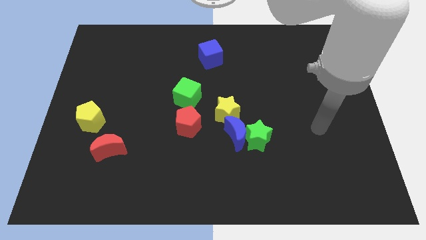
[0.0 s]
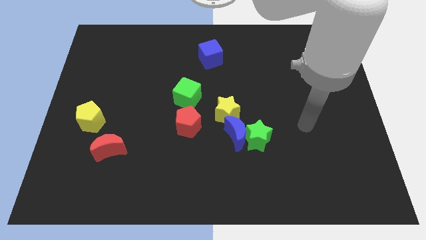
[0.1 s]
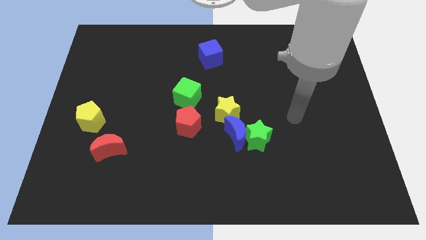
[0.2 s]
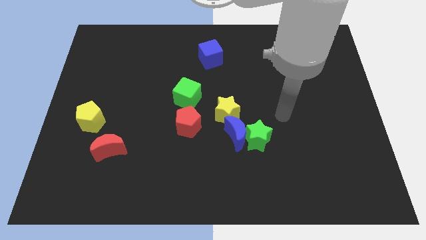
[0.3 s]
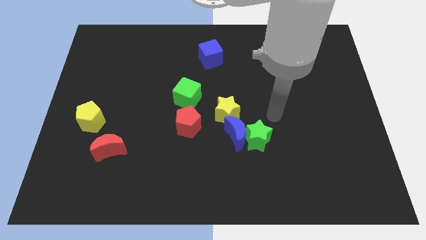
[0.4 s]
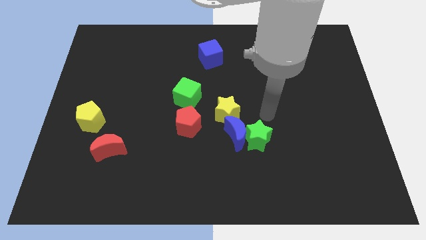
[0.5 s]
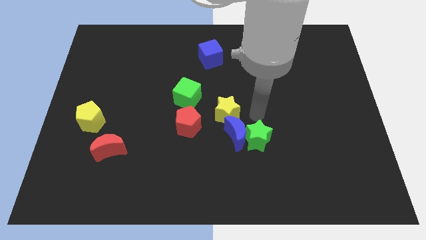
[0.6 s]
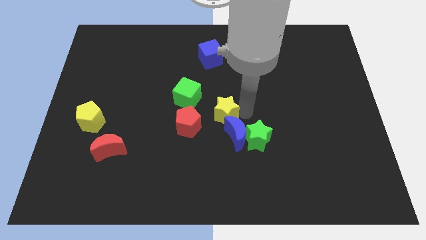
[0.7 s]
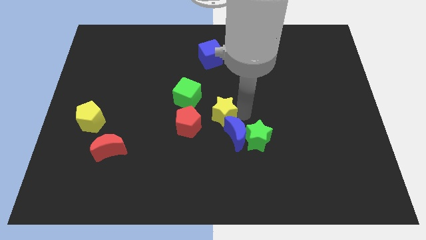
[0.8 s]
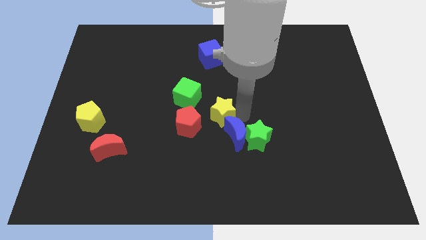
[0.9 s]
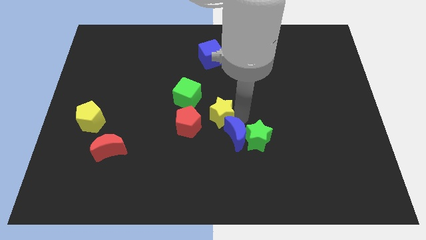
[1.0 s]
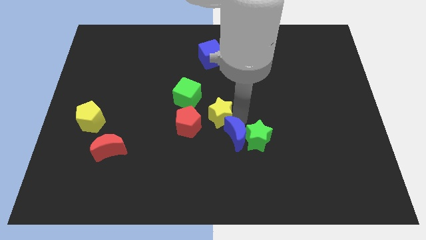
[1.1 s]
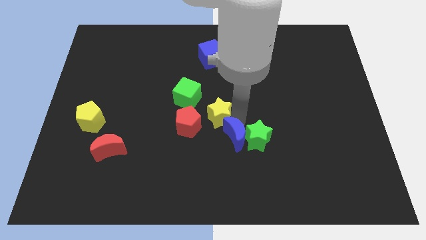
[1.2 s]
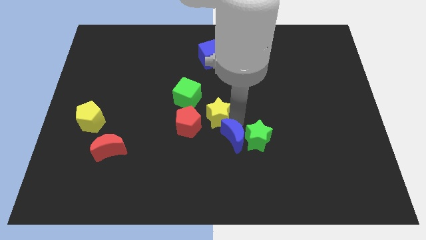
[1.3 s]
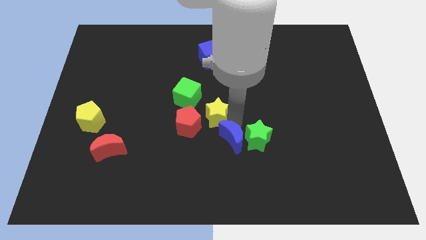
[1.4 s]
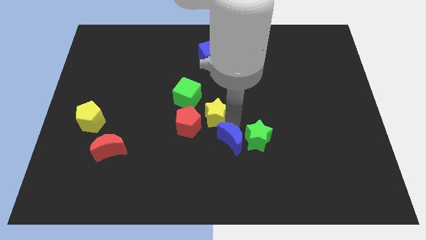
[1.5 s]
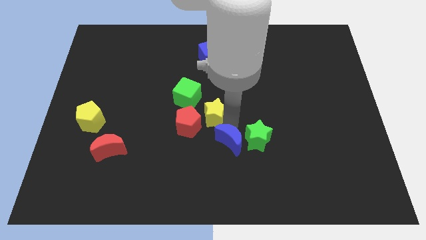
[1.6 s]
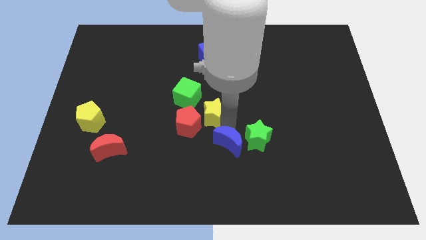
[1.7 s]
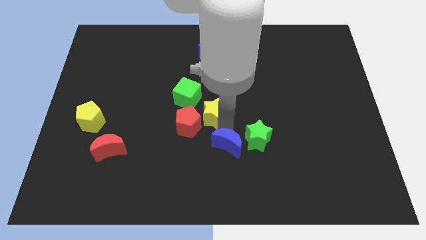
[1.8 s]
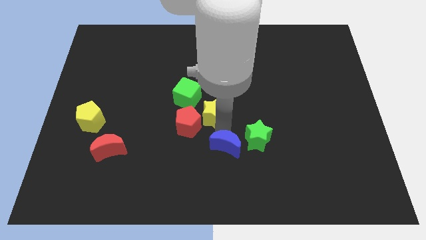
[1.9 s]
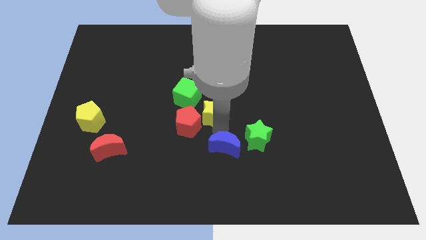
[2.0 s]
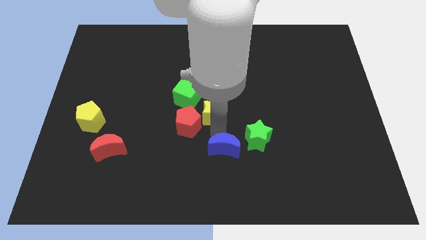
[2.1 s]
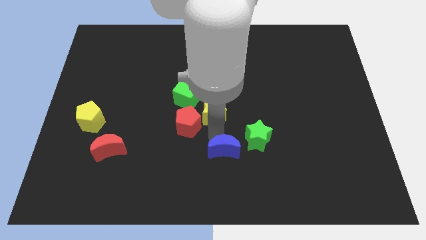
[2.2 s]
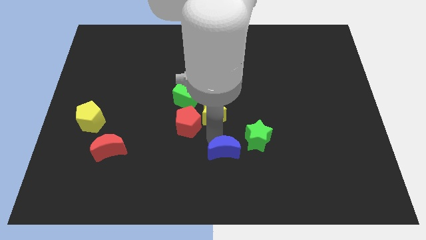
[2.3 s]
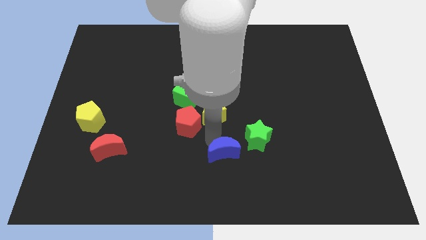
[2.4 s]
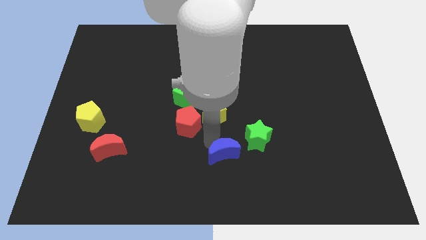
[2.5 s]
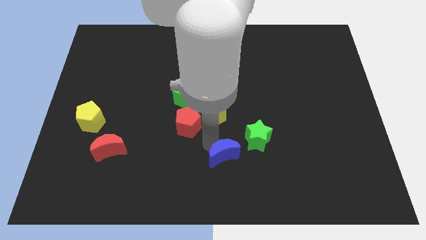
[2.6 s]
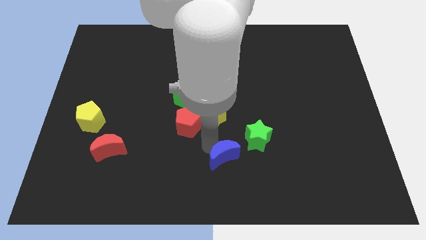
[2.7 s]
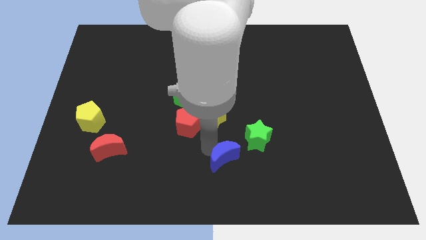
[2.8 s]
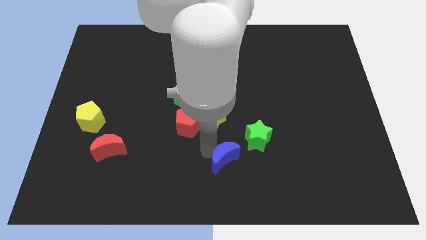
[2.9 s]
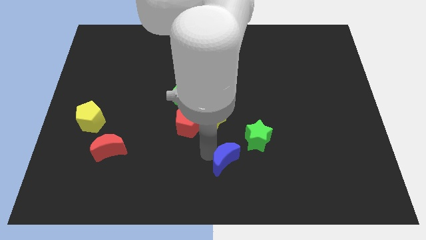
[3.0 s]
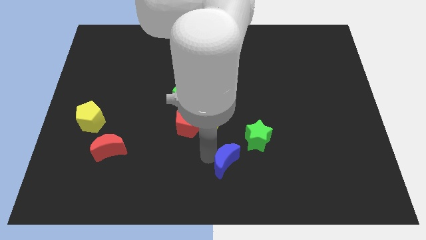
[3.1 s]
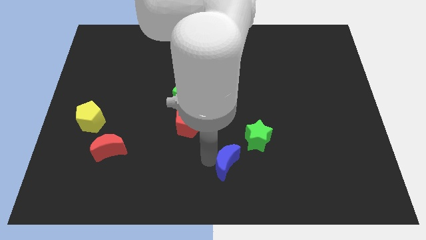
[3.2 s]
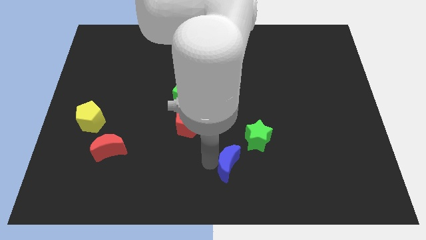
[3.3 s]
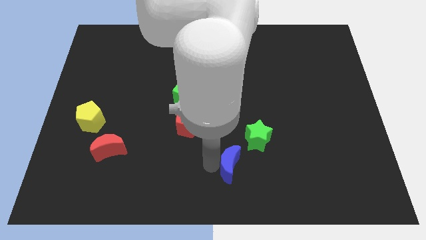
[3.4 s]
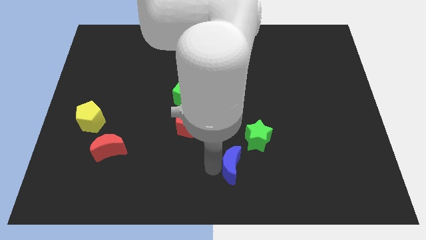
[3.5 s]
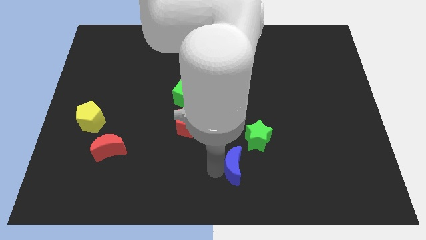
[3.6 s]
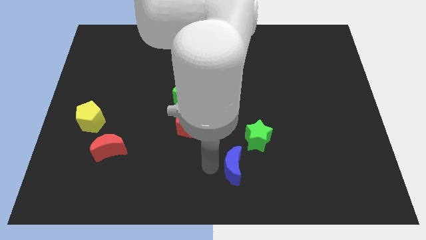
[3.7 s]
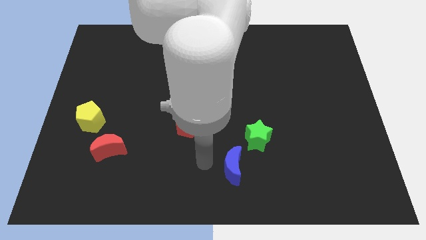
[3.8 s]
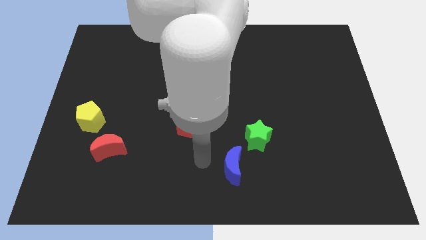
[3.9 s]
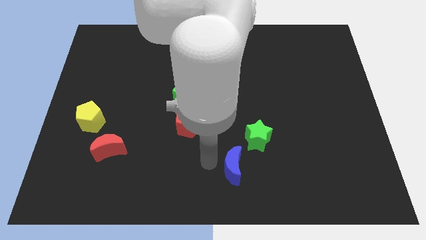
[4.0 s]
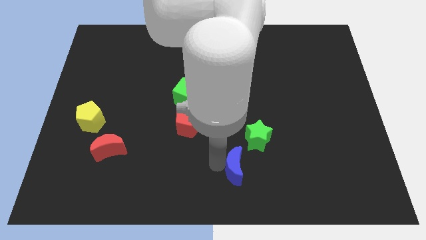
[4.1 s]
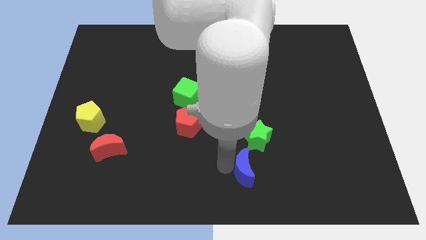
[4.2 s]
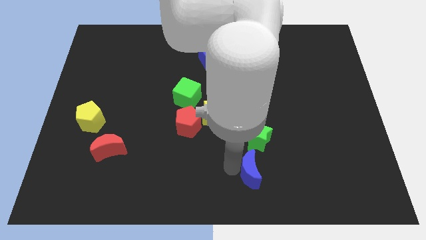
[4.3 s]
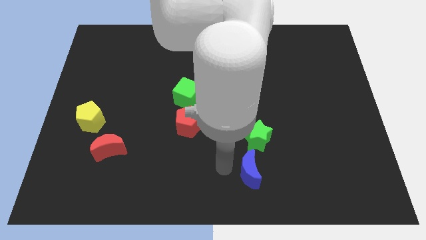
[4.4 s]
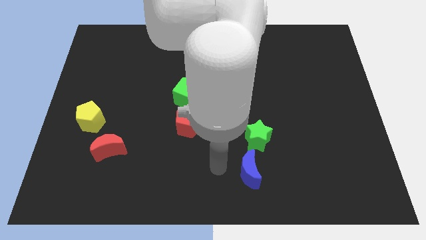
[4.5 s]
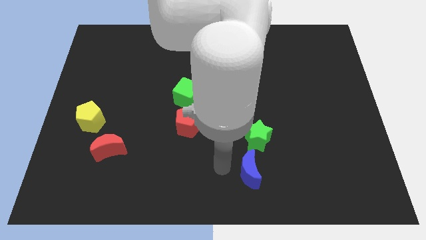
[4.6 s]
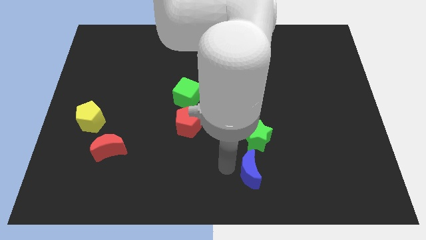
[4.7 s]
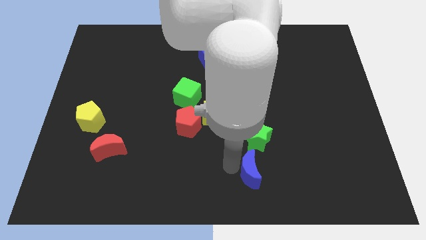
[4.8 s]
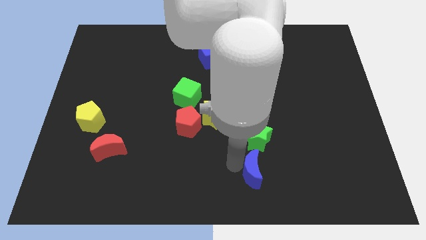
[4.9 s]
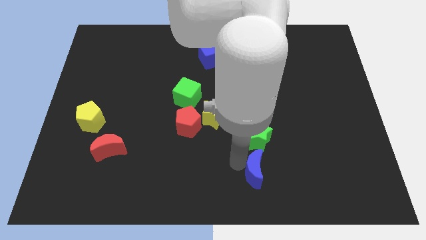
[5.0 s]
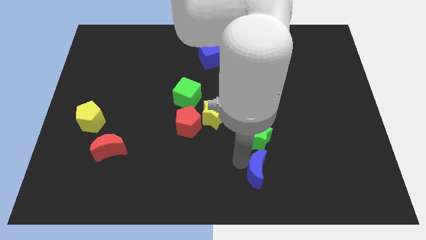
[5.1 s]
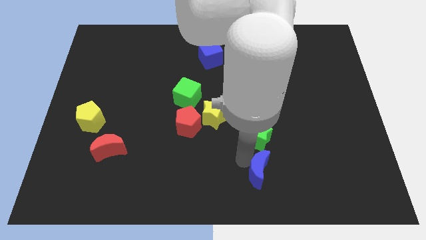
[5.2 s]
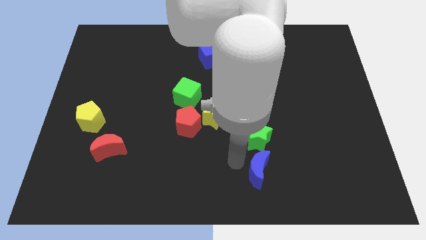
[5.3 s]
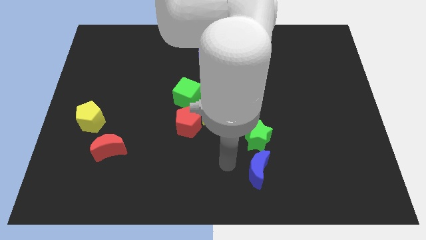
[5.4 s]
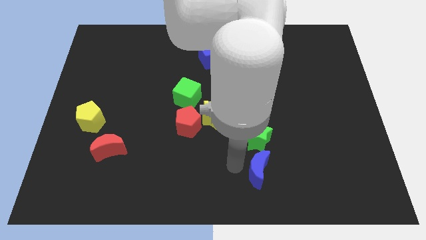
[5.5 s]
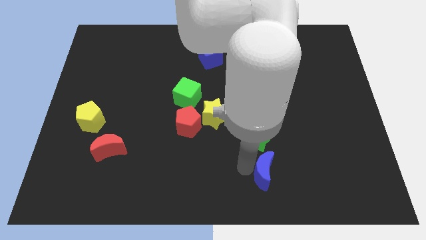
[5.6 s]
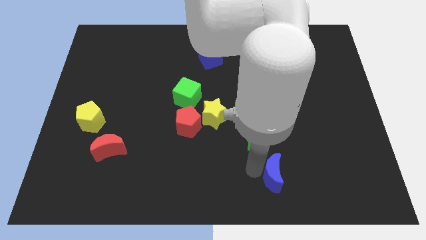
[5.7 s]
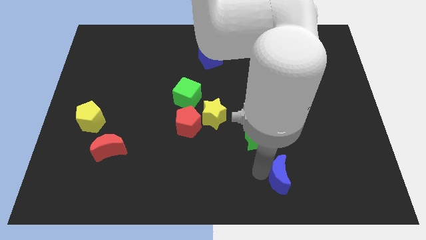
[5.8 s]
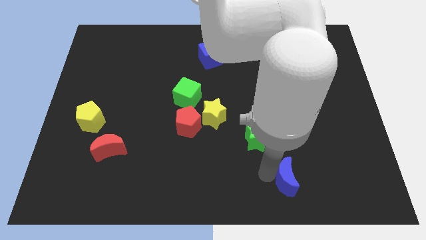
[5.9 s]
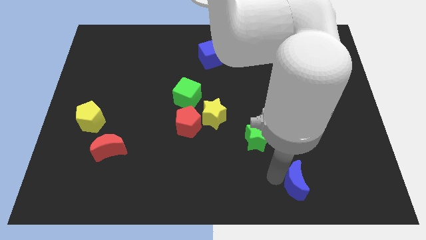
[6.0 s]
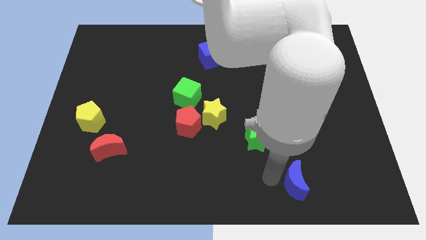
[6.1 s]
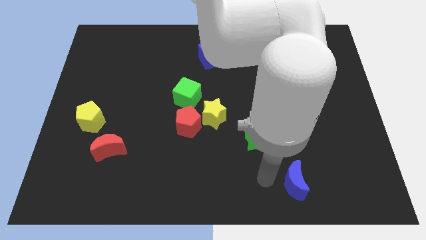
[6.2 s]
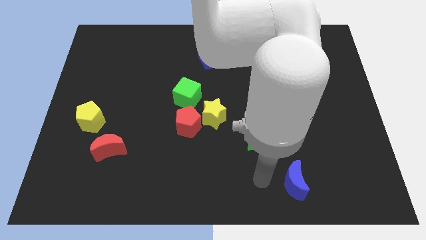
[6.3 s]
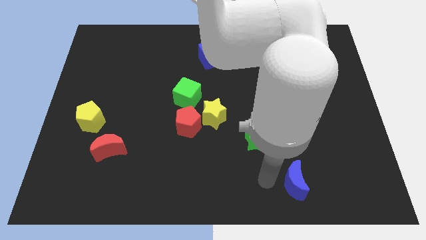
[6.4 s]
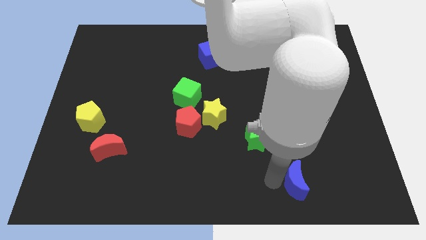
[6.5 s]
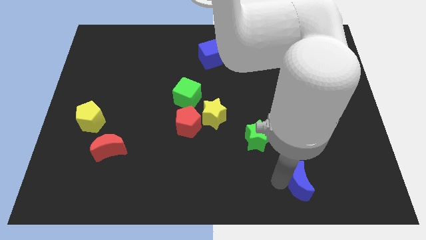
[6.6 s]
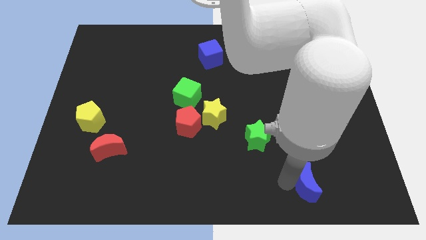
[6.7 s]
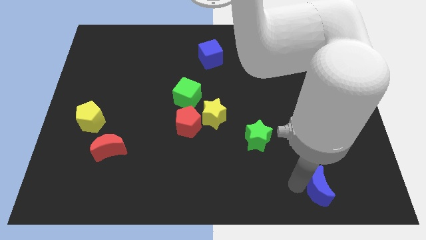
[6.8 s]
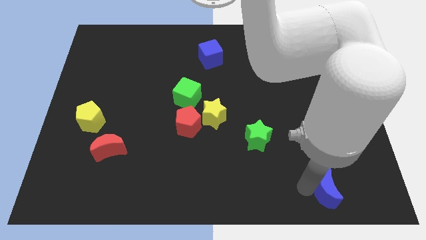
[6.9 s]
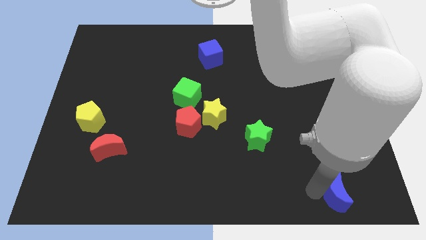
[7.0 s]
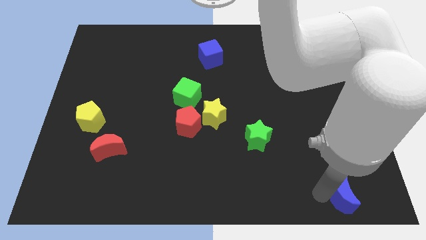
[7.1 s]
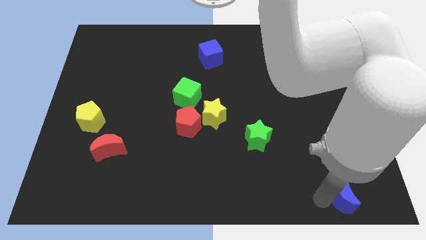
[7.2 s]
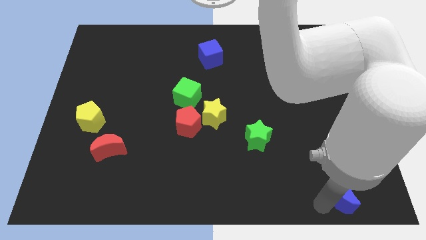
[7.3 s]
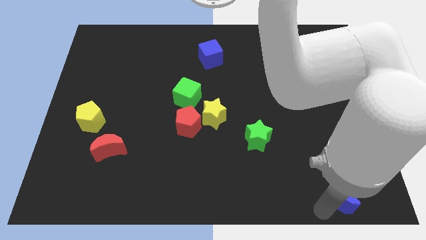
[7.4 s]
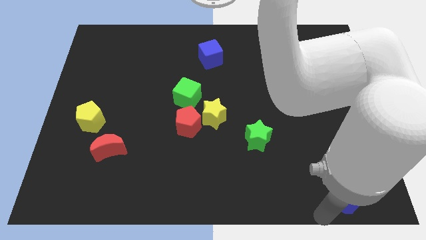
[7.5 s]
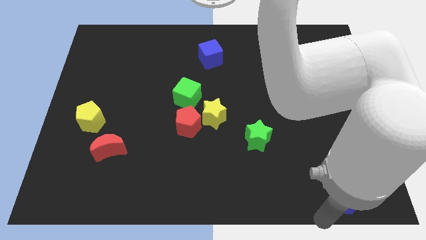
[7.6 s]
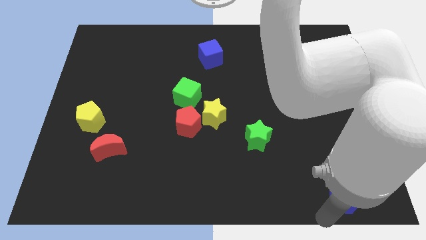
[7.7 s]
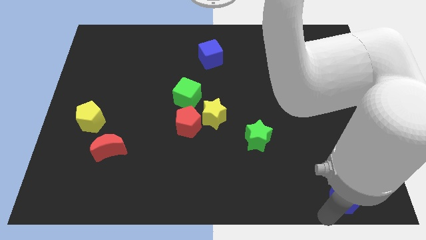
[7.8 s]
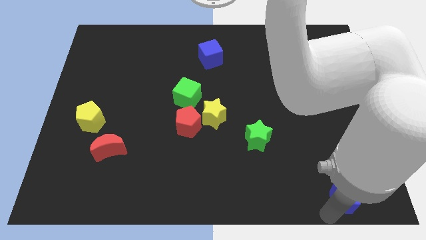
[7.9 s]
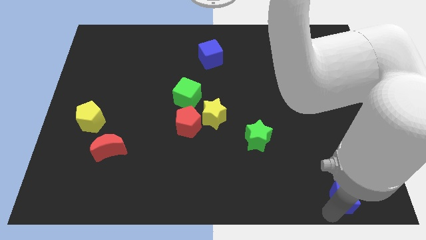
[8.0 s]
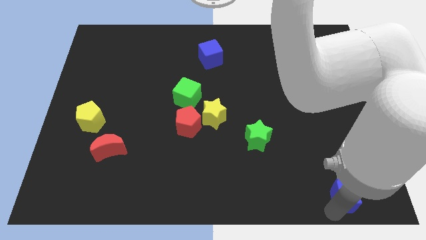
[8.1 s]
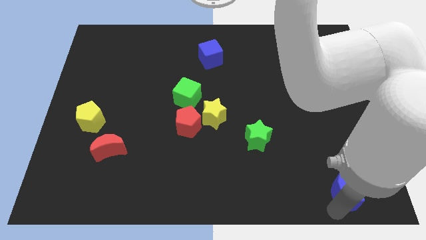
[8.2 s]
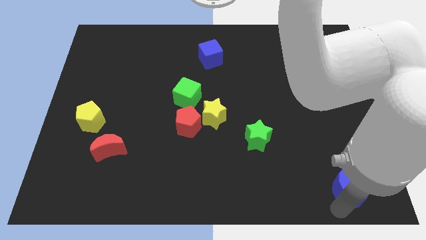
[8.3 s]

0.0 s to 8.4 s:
move the blue moon to the bottom right of the board
